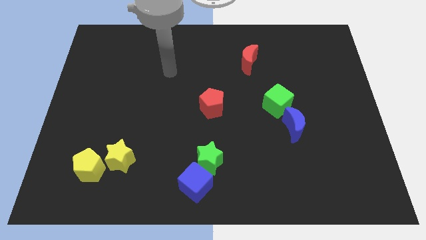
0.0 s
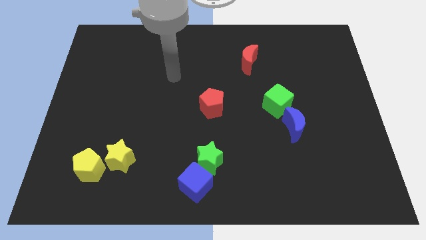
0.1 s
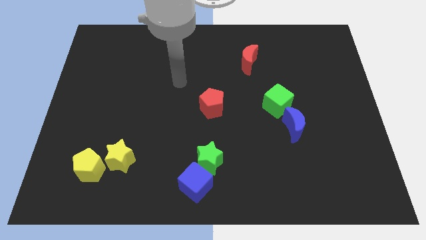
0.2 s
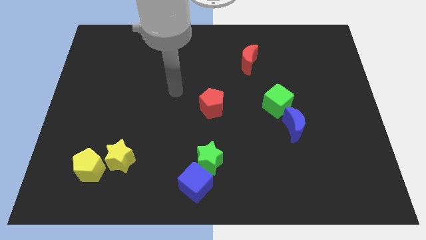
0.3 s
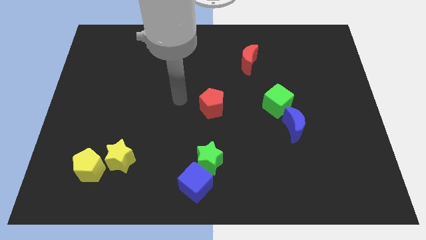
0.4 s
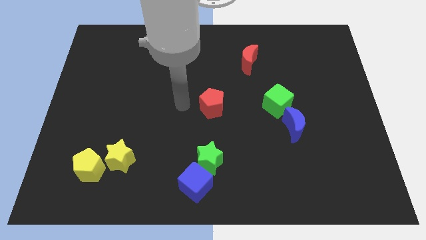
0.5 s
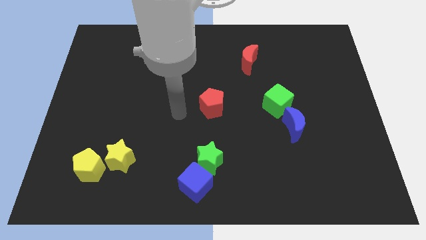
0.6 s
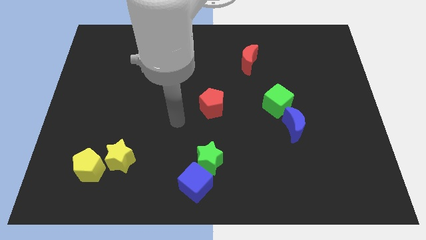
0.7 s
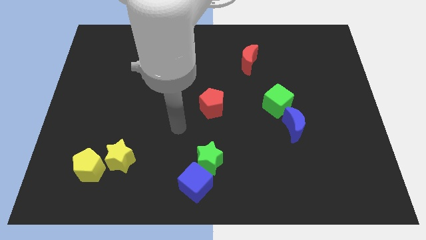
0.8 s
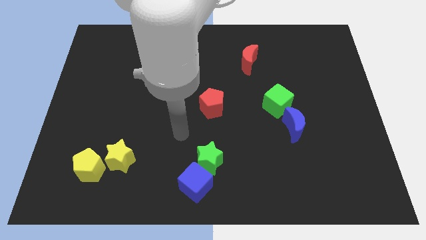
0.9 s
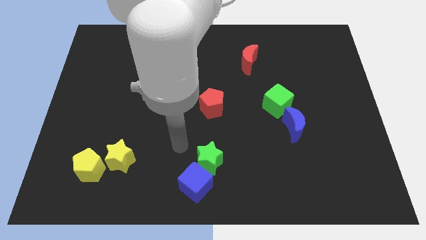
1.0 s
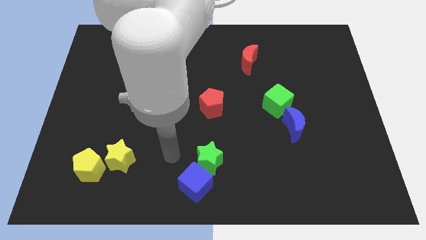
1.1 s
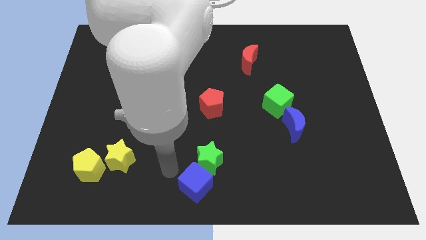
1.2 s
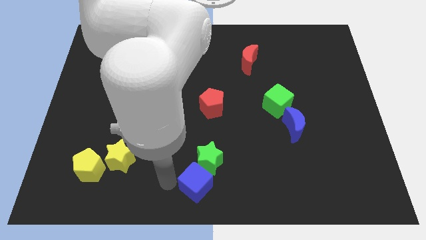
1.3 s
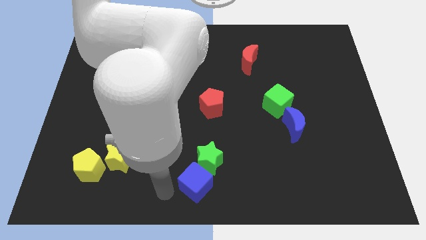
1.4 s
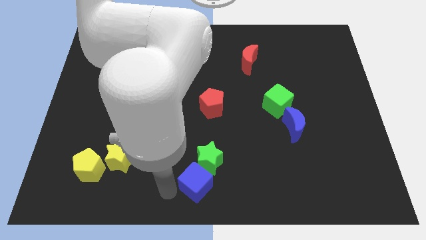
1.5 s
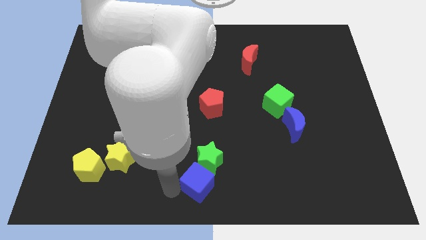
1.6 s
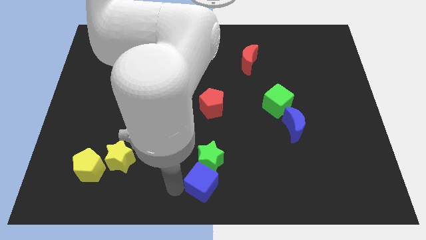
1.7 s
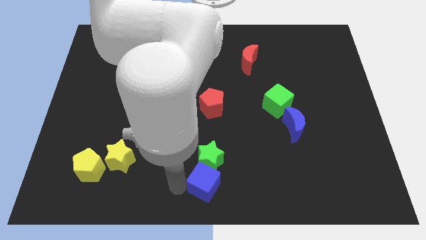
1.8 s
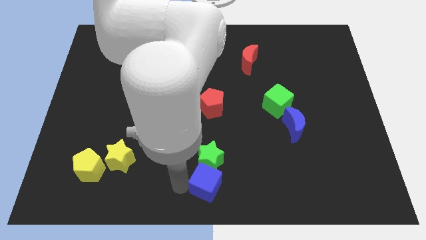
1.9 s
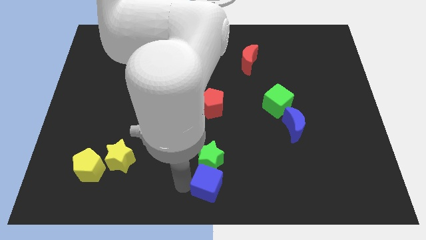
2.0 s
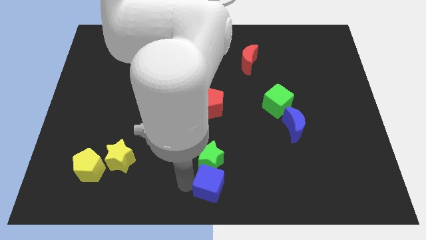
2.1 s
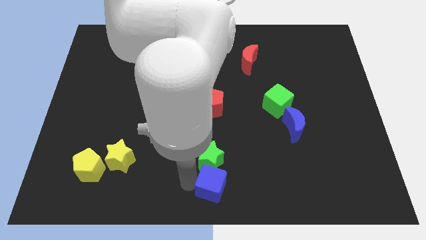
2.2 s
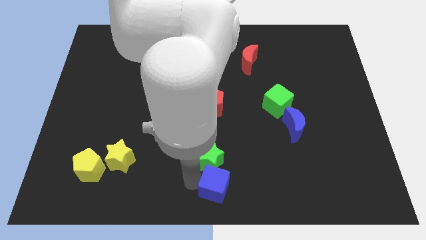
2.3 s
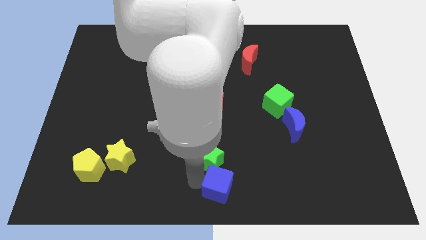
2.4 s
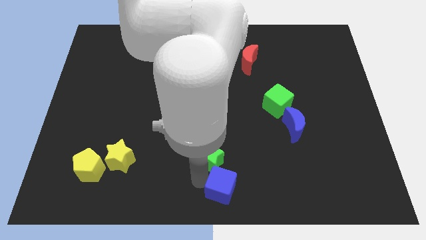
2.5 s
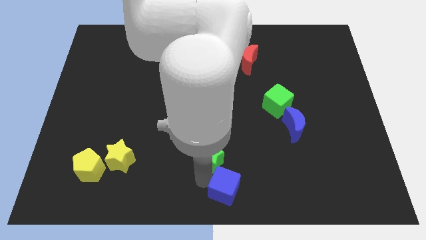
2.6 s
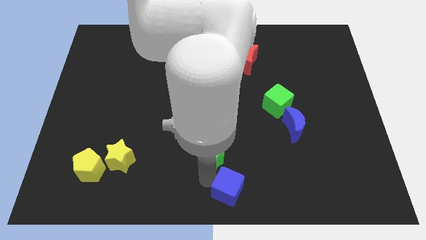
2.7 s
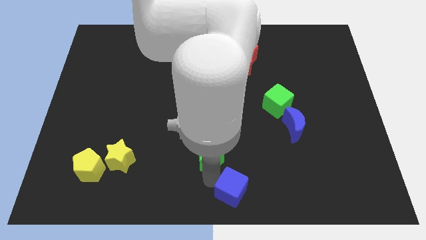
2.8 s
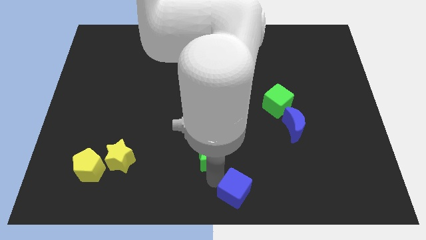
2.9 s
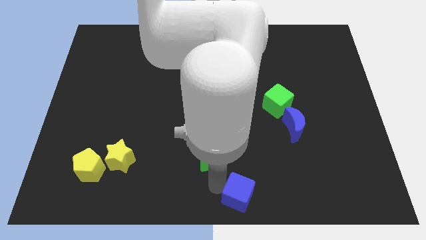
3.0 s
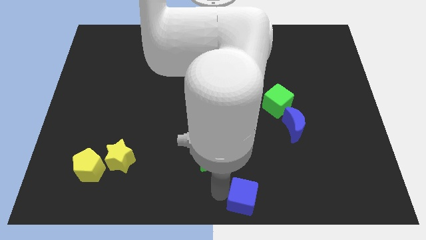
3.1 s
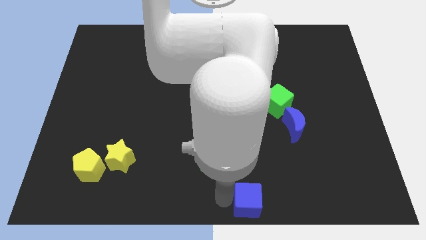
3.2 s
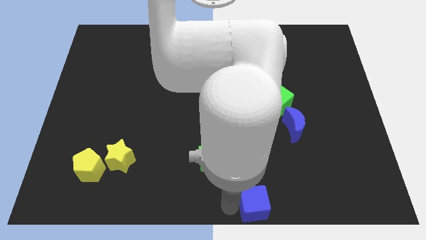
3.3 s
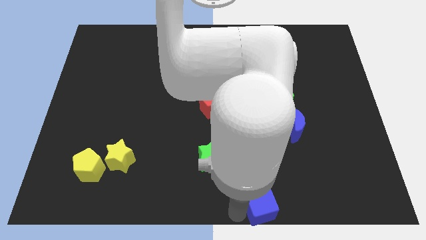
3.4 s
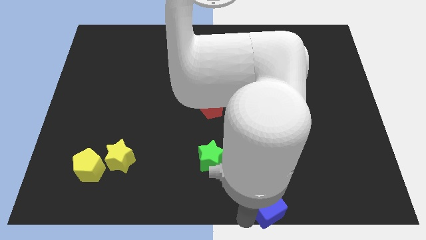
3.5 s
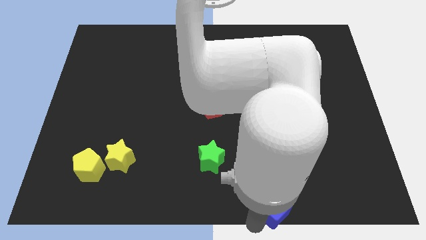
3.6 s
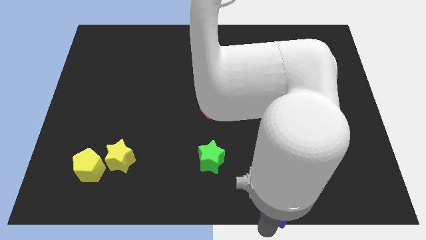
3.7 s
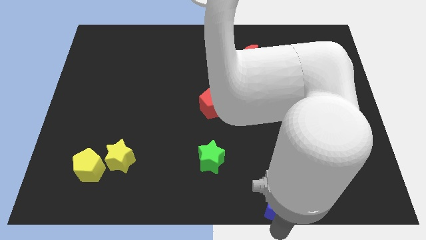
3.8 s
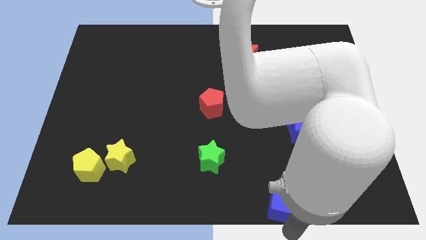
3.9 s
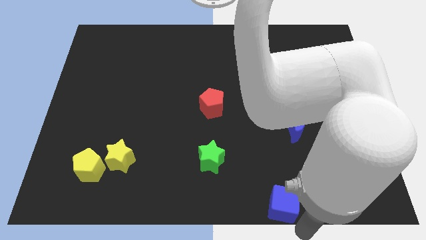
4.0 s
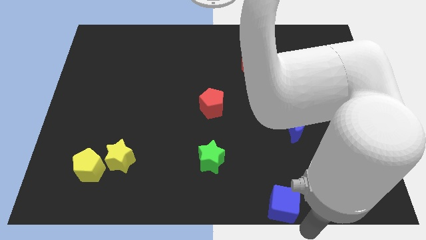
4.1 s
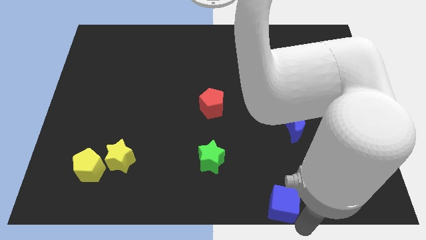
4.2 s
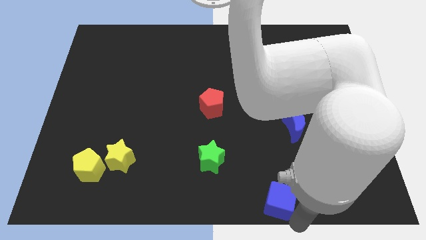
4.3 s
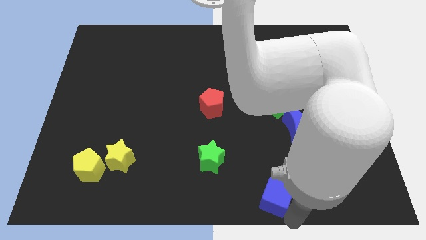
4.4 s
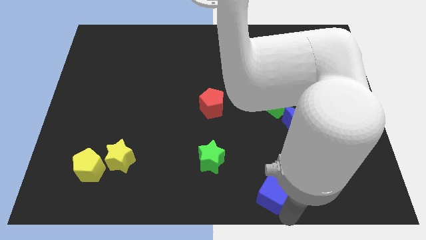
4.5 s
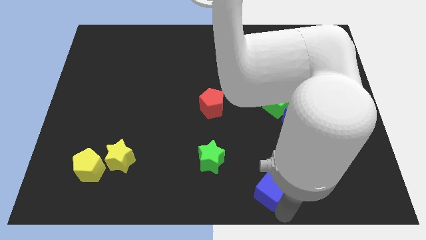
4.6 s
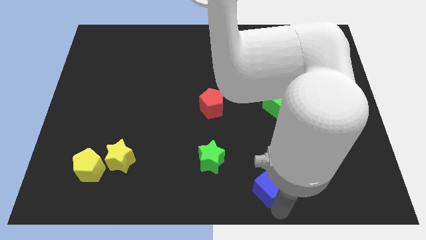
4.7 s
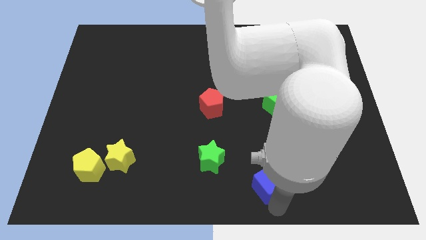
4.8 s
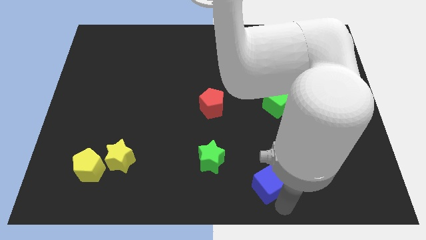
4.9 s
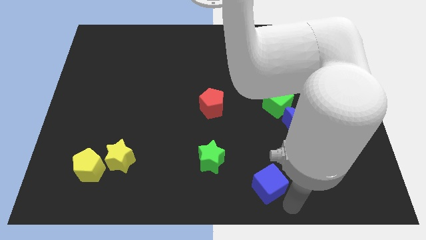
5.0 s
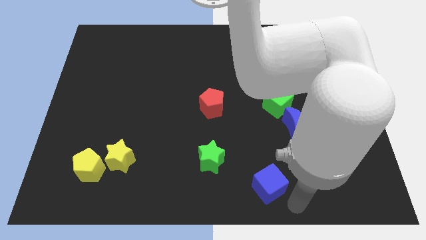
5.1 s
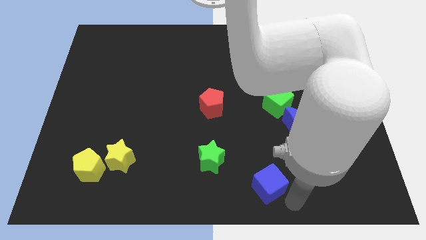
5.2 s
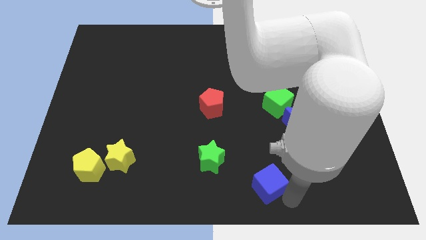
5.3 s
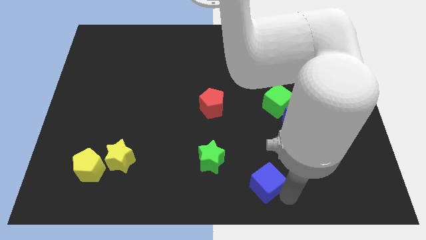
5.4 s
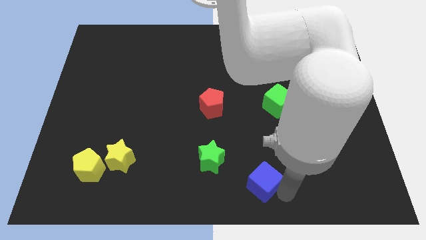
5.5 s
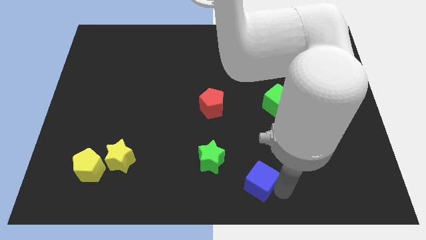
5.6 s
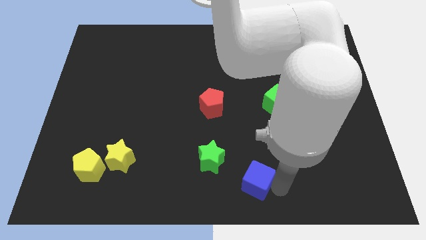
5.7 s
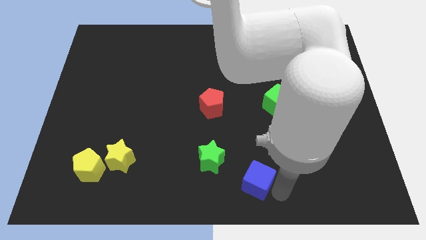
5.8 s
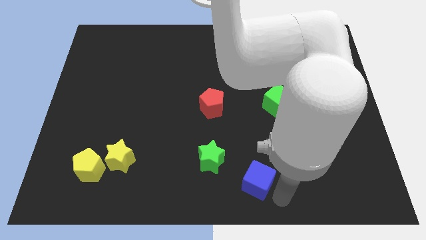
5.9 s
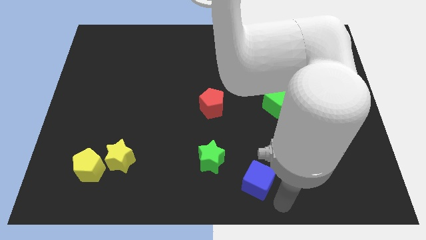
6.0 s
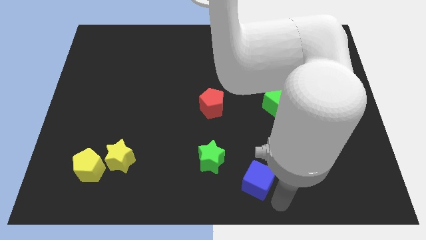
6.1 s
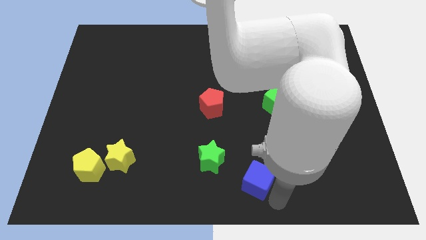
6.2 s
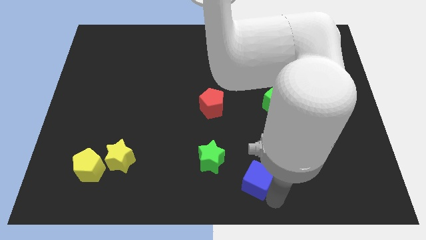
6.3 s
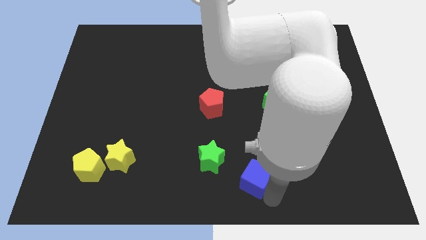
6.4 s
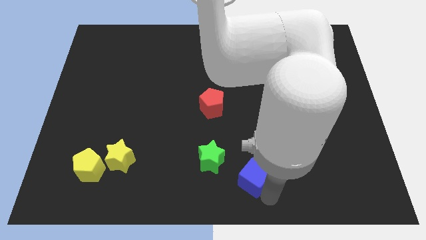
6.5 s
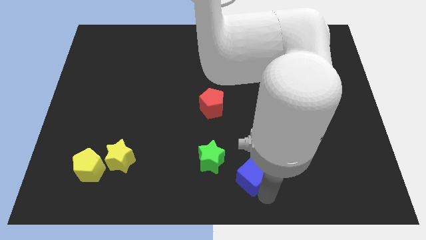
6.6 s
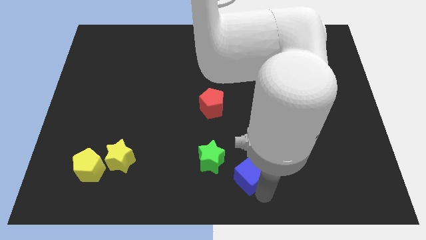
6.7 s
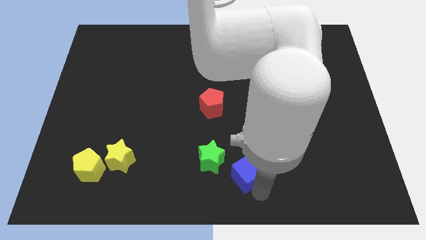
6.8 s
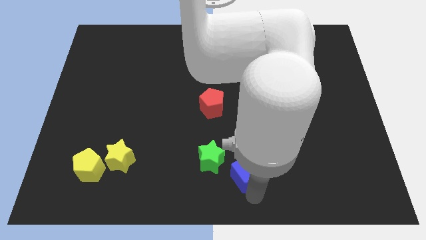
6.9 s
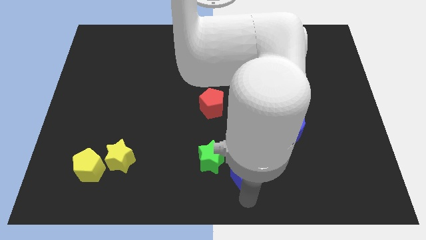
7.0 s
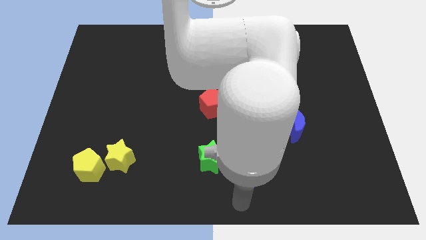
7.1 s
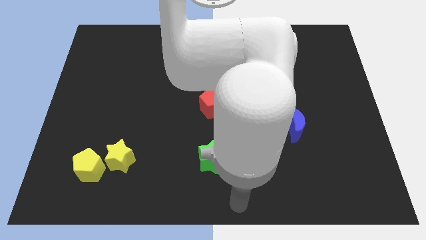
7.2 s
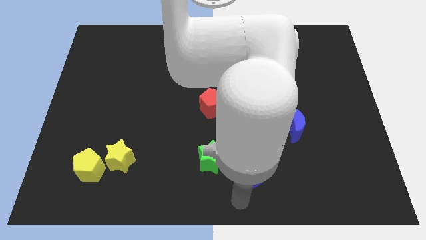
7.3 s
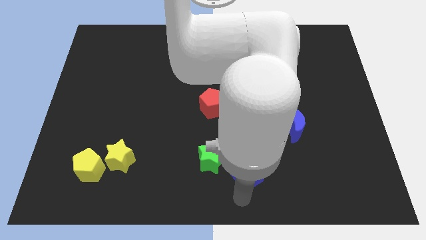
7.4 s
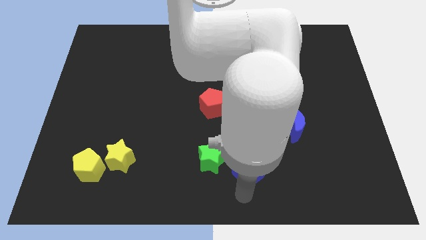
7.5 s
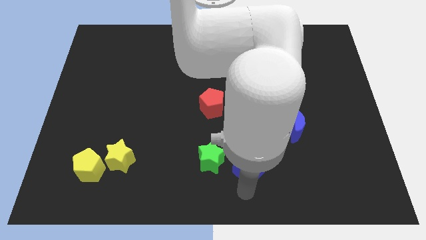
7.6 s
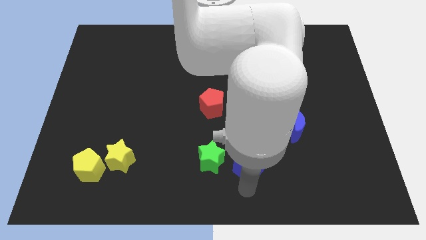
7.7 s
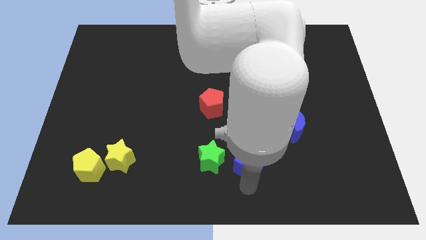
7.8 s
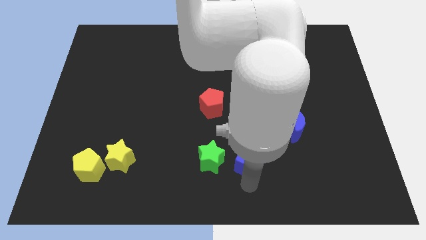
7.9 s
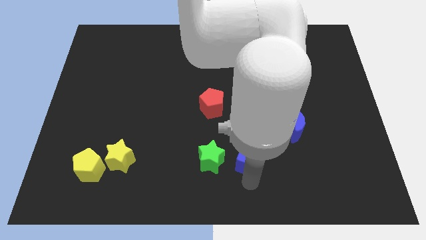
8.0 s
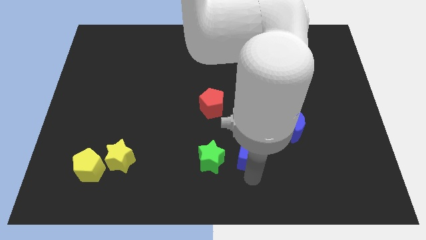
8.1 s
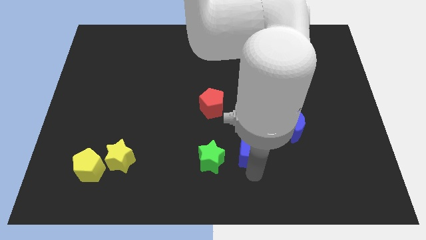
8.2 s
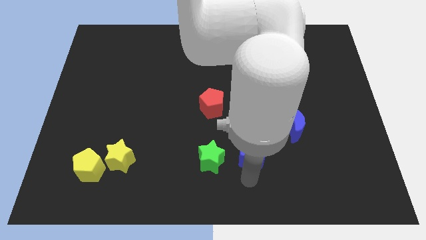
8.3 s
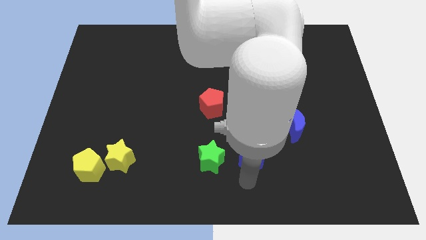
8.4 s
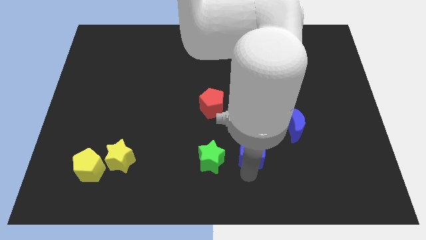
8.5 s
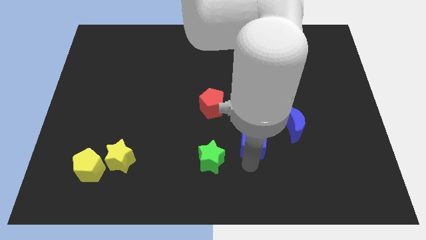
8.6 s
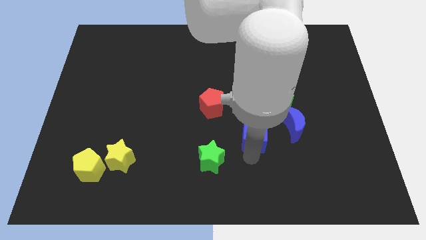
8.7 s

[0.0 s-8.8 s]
push the blue cube to the bottom left side of the green cube
